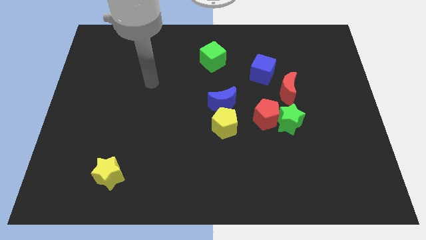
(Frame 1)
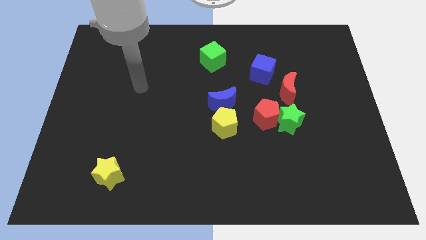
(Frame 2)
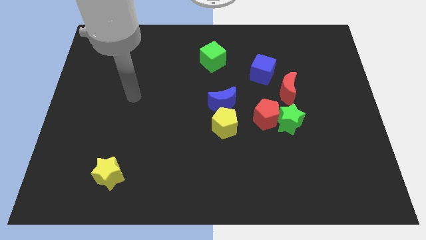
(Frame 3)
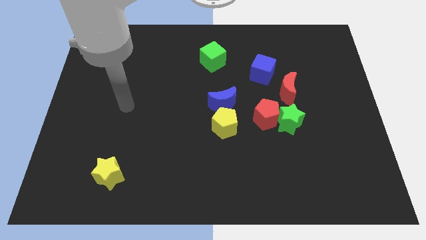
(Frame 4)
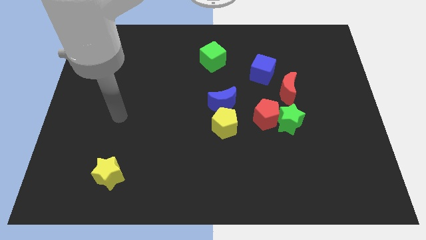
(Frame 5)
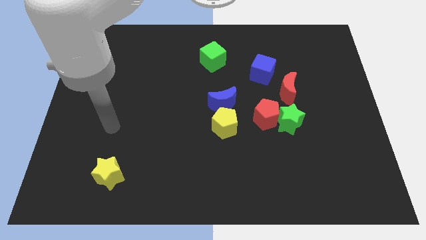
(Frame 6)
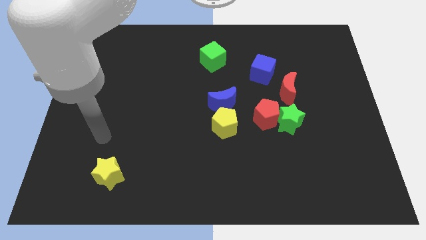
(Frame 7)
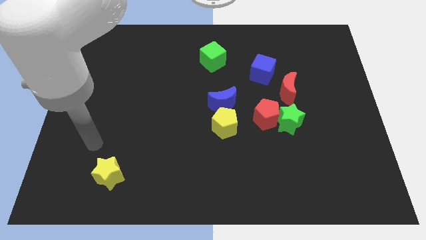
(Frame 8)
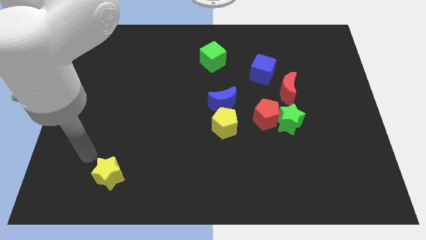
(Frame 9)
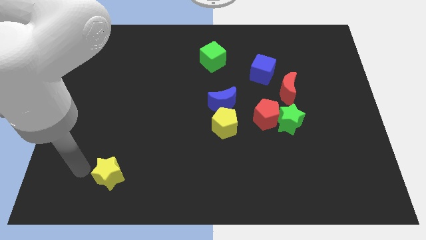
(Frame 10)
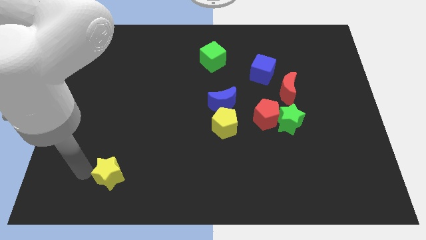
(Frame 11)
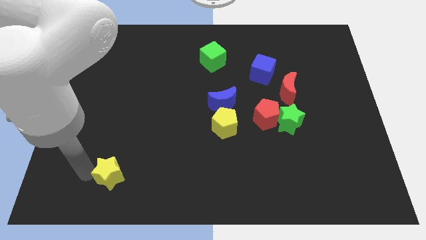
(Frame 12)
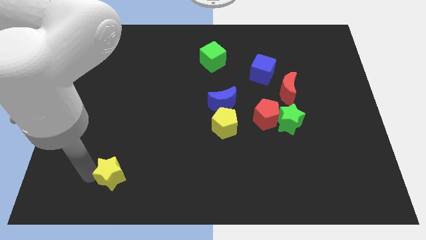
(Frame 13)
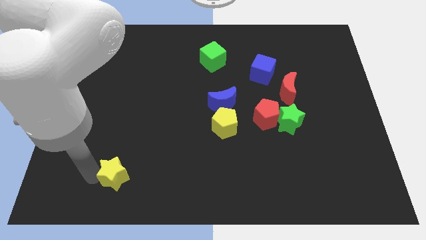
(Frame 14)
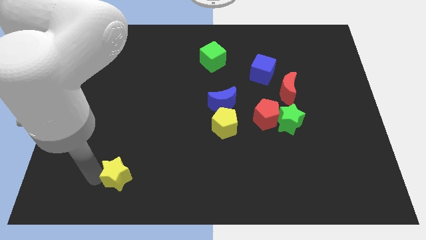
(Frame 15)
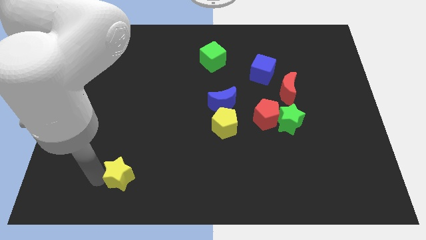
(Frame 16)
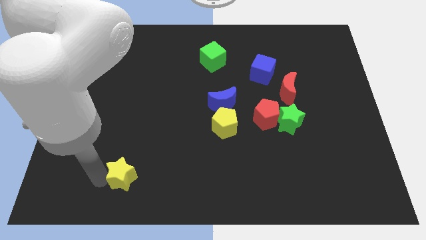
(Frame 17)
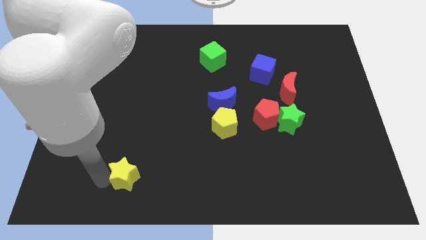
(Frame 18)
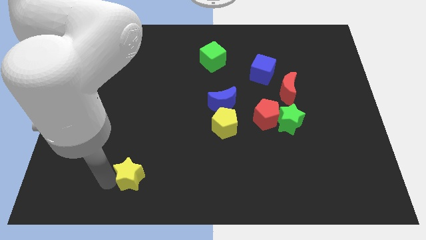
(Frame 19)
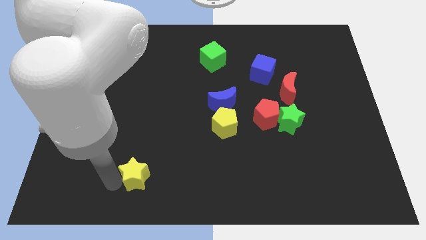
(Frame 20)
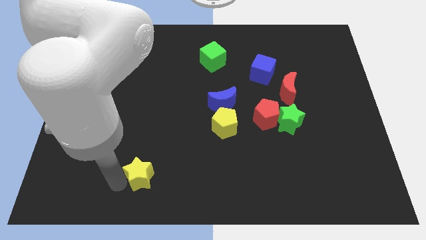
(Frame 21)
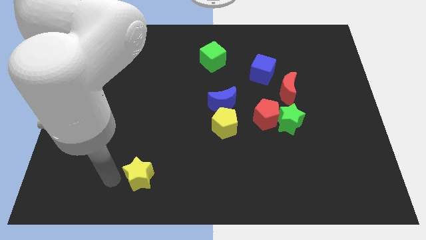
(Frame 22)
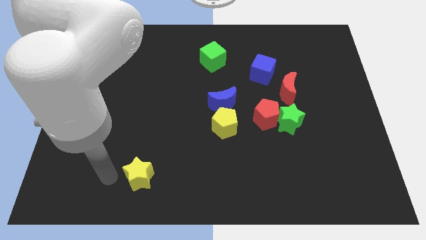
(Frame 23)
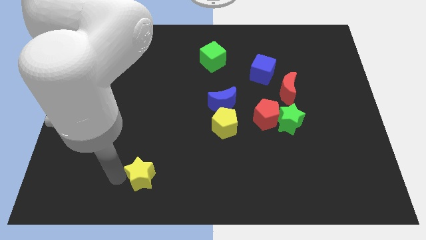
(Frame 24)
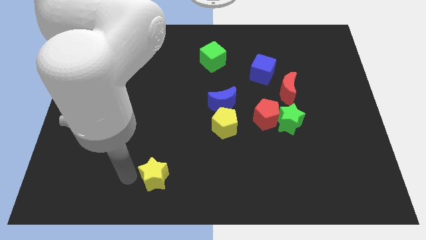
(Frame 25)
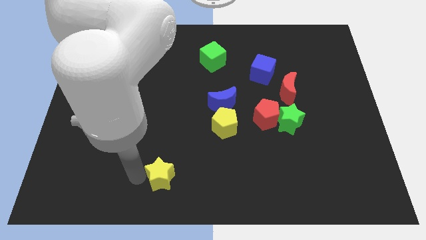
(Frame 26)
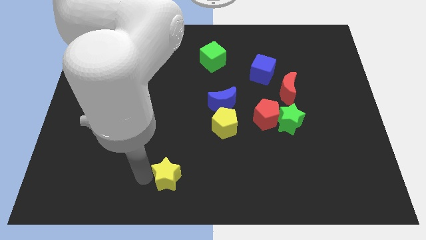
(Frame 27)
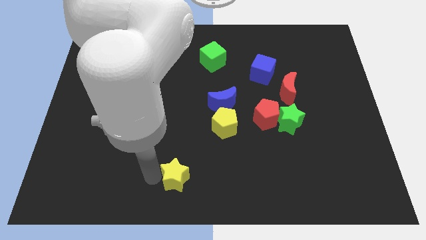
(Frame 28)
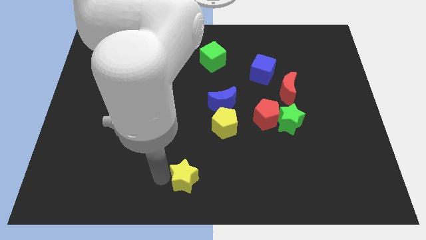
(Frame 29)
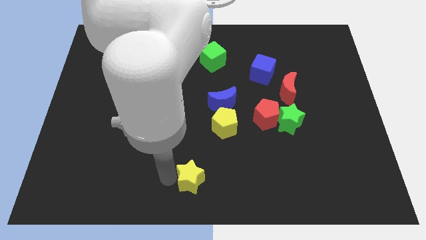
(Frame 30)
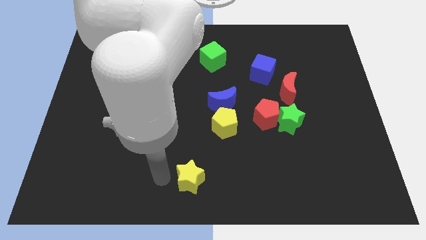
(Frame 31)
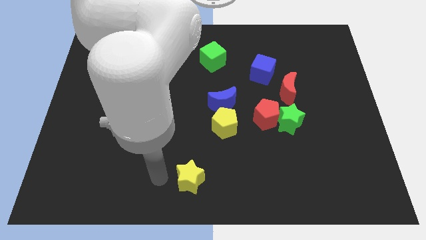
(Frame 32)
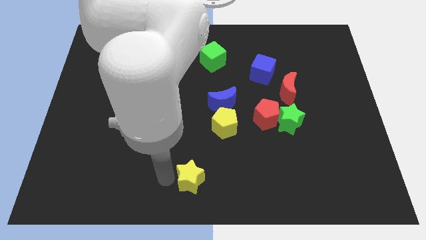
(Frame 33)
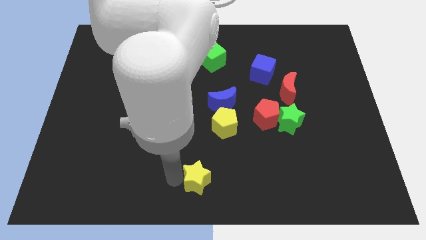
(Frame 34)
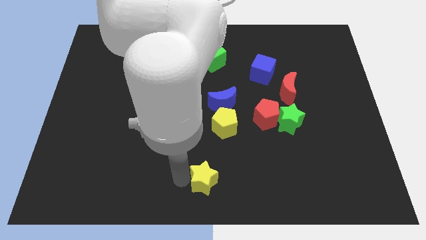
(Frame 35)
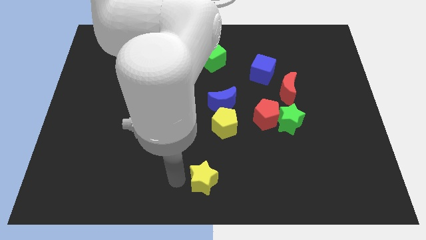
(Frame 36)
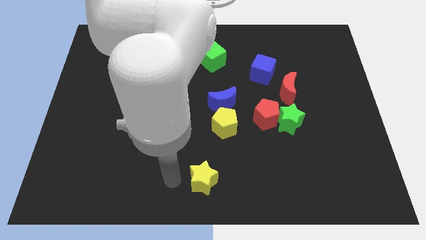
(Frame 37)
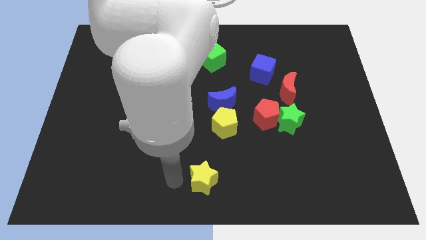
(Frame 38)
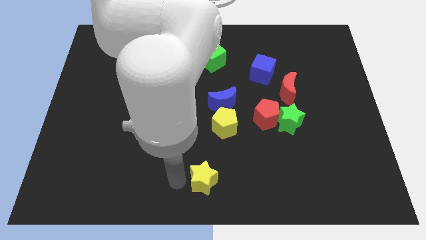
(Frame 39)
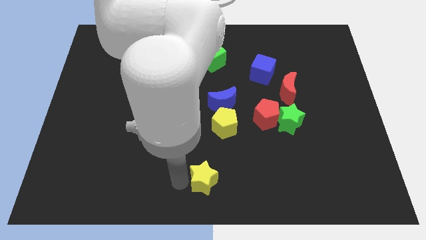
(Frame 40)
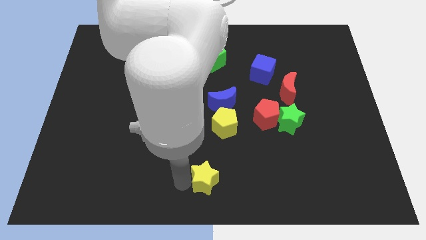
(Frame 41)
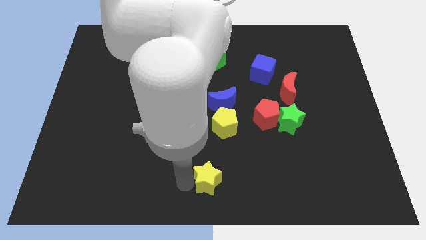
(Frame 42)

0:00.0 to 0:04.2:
push the yellow star to the right

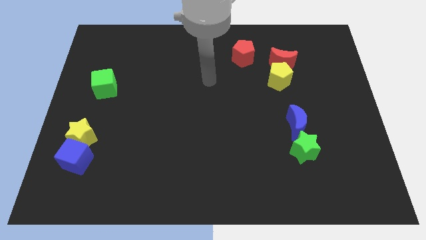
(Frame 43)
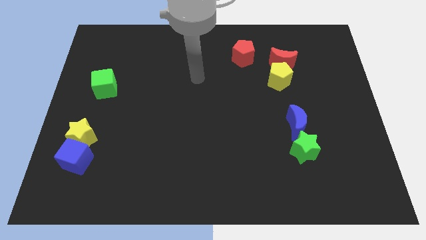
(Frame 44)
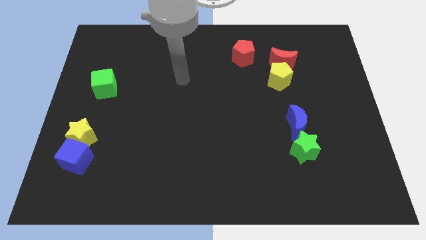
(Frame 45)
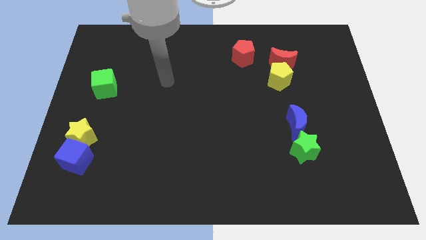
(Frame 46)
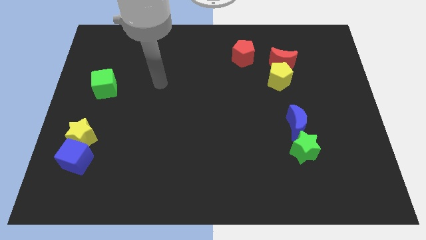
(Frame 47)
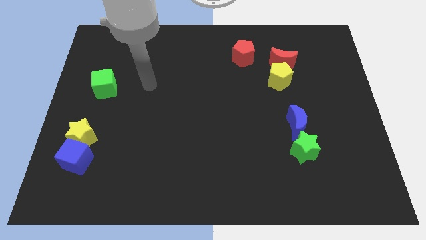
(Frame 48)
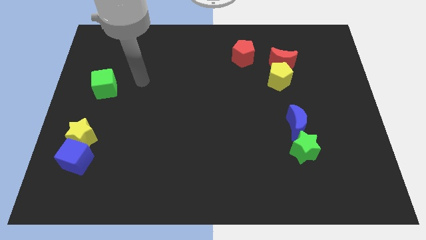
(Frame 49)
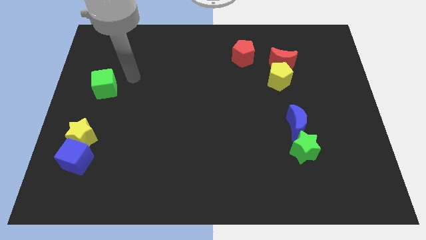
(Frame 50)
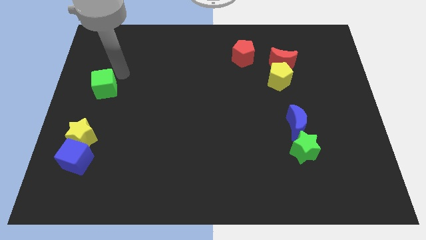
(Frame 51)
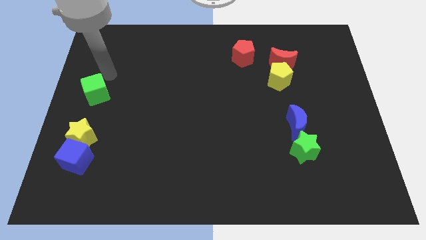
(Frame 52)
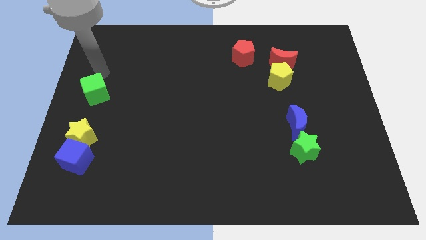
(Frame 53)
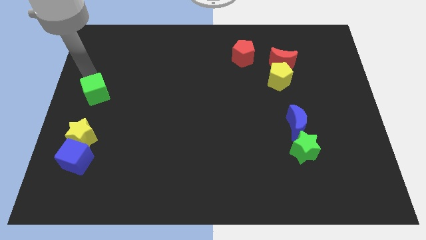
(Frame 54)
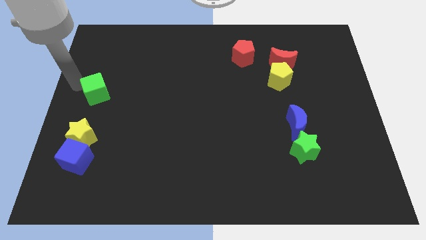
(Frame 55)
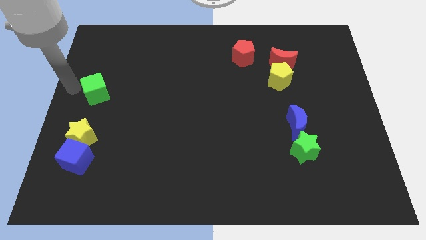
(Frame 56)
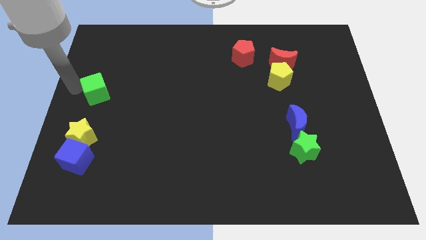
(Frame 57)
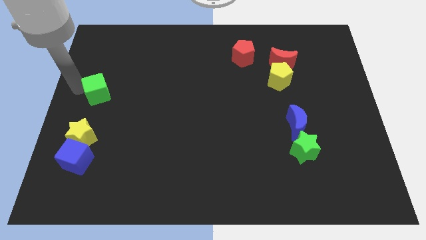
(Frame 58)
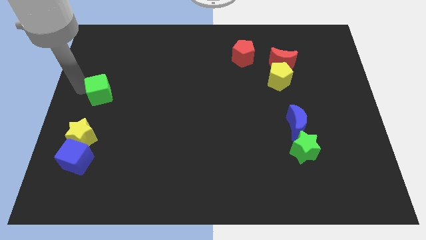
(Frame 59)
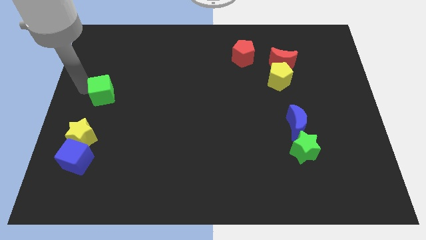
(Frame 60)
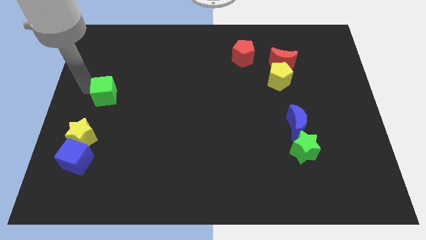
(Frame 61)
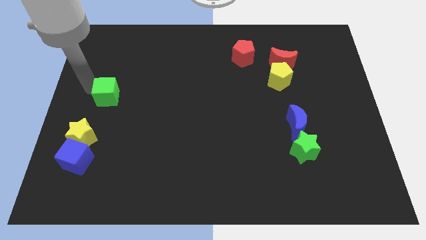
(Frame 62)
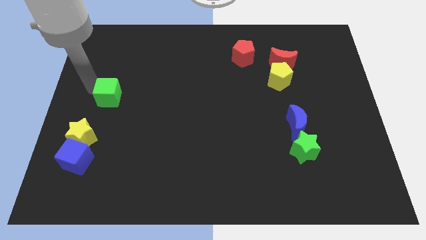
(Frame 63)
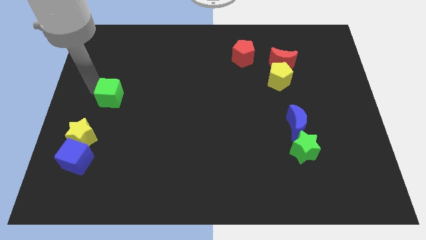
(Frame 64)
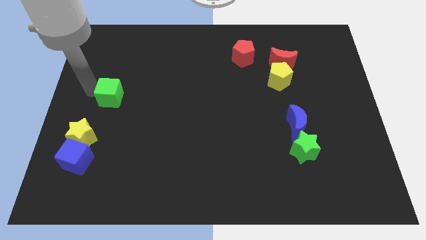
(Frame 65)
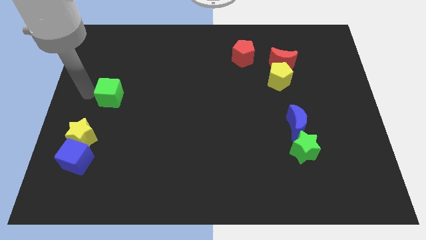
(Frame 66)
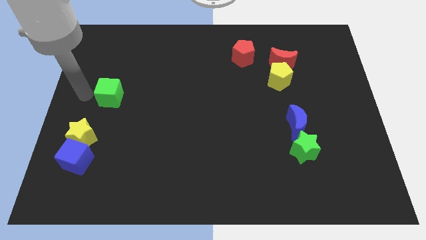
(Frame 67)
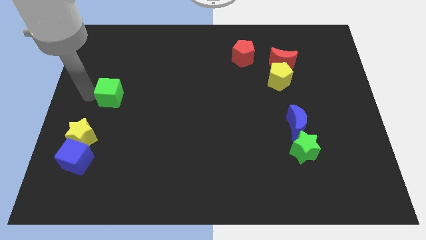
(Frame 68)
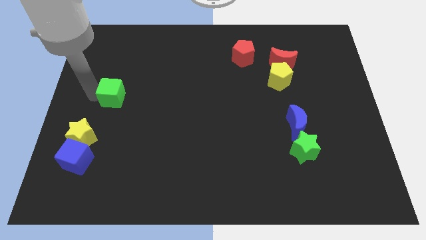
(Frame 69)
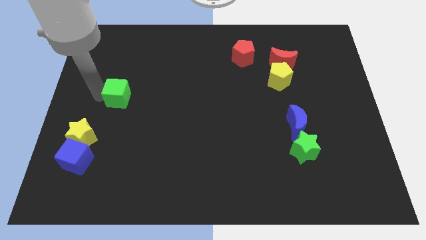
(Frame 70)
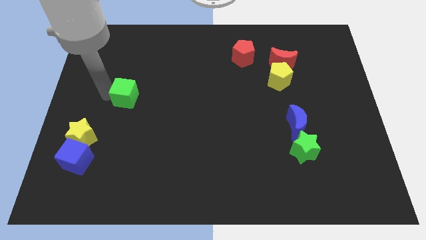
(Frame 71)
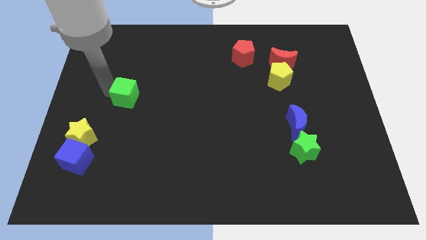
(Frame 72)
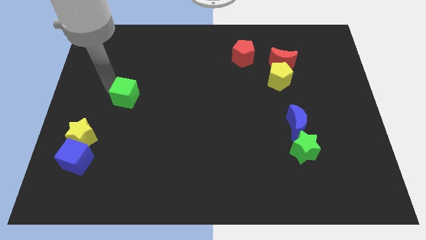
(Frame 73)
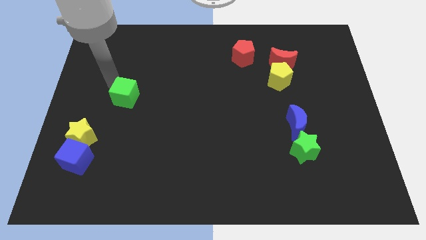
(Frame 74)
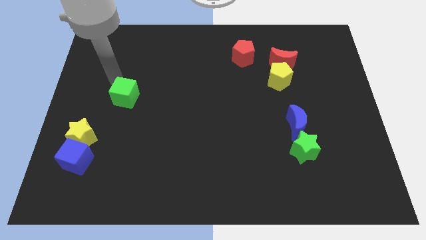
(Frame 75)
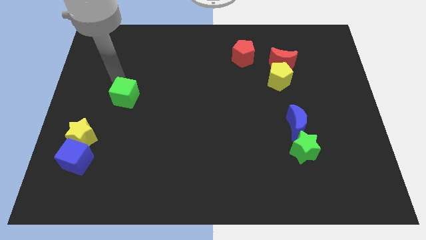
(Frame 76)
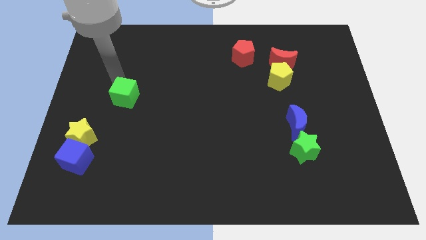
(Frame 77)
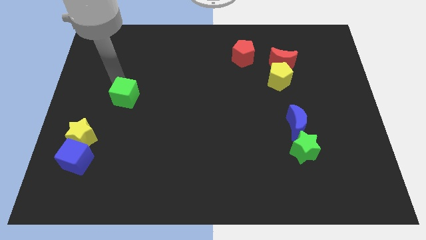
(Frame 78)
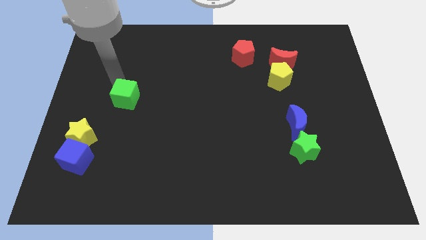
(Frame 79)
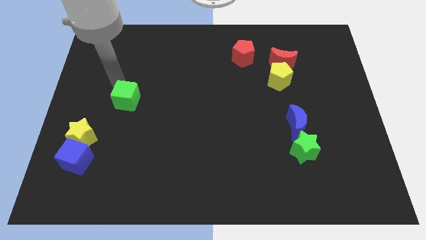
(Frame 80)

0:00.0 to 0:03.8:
slide the green cube down and to the right diagonally a little
